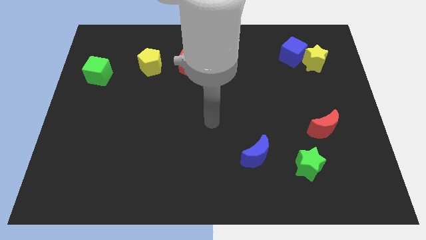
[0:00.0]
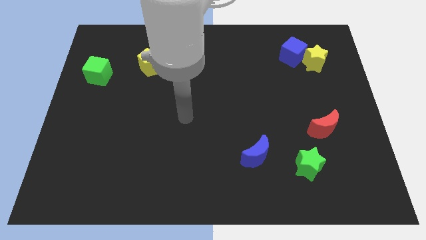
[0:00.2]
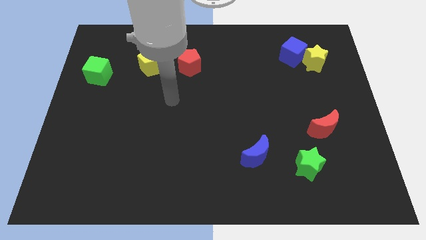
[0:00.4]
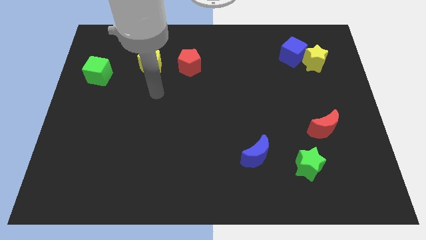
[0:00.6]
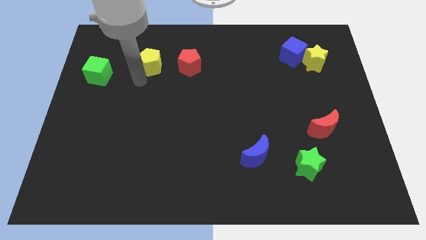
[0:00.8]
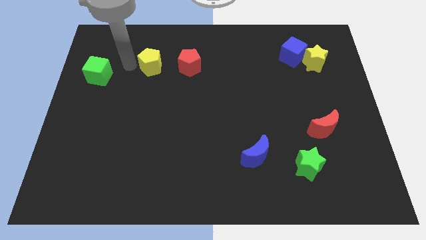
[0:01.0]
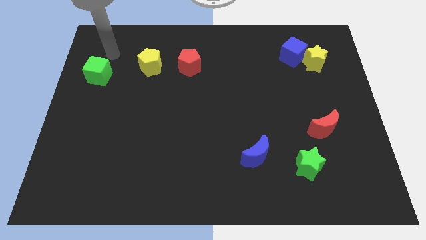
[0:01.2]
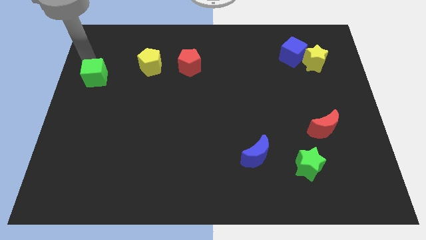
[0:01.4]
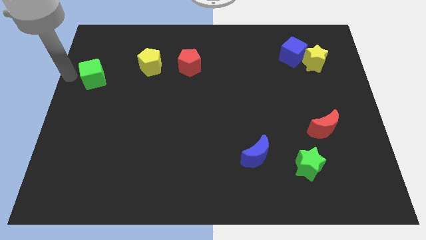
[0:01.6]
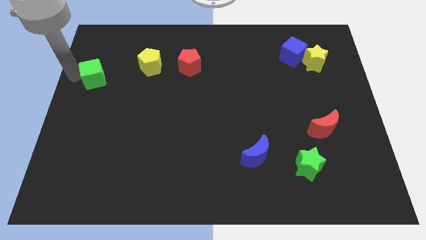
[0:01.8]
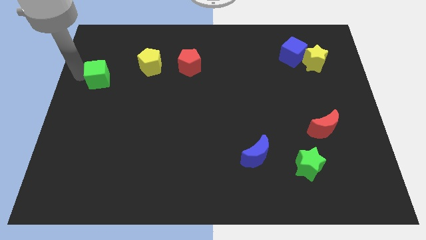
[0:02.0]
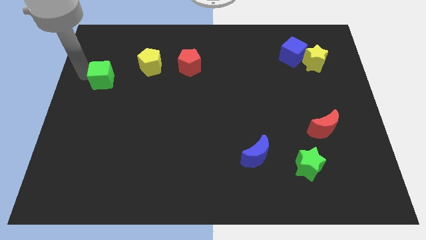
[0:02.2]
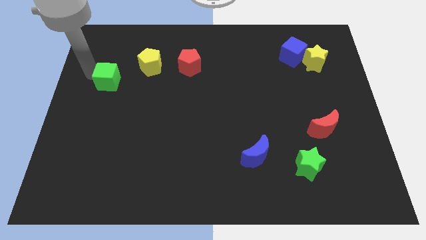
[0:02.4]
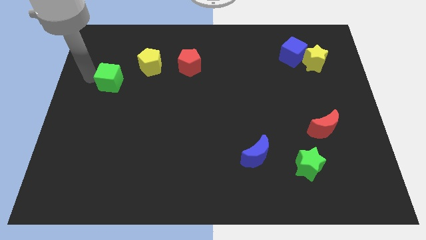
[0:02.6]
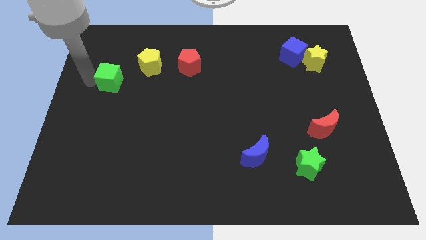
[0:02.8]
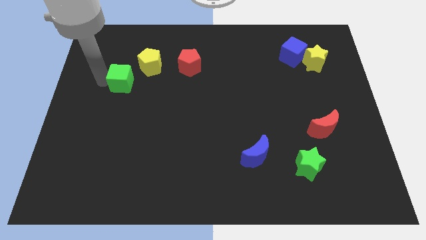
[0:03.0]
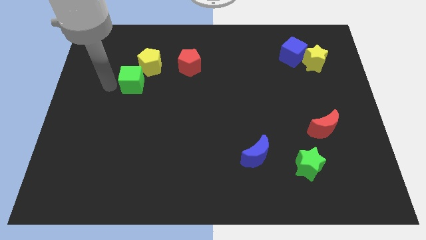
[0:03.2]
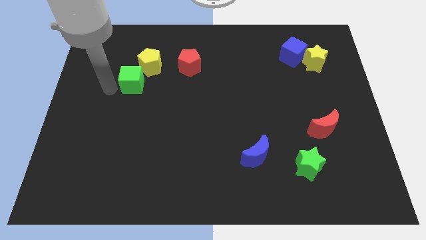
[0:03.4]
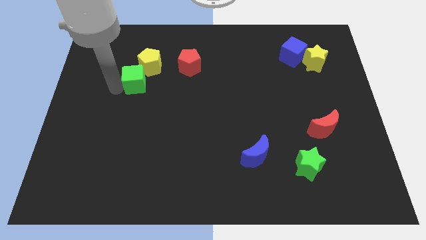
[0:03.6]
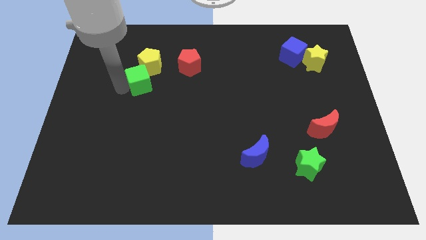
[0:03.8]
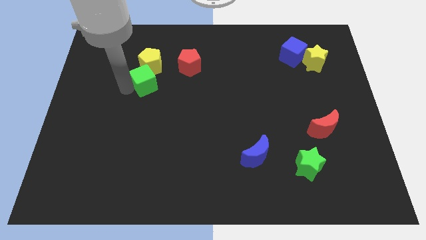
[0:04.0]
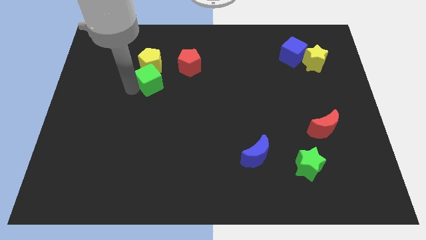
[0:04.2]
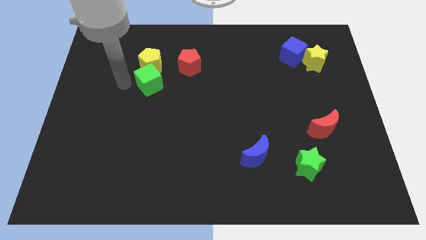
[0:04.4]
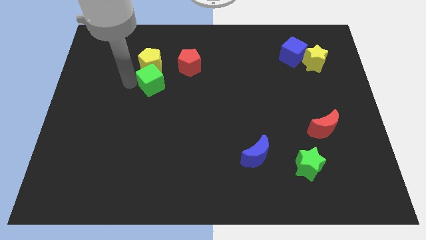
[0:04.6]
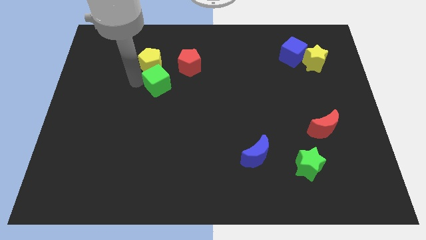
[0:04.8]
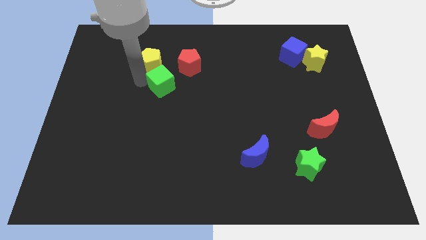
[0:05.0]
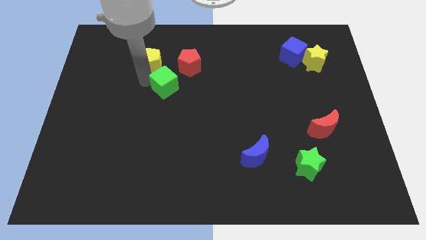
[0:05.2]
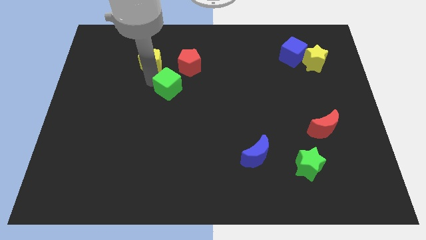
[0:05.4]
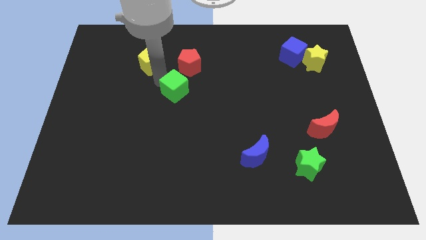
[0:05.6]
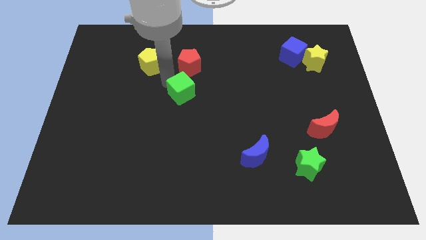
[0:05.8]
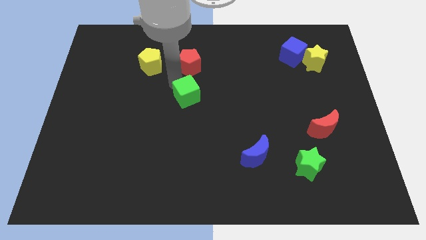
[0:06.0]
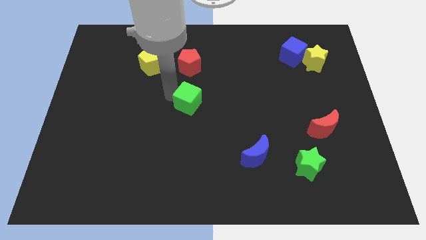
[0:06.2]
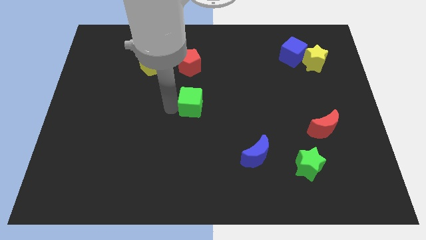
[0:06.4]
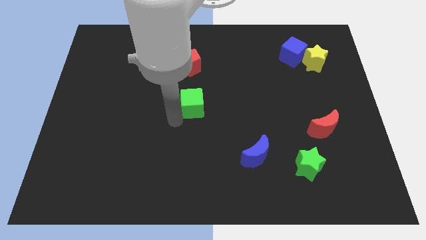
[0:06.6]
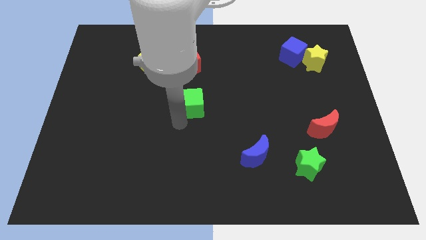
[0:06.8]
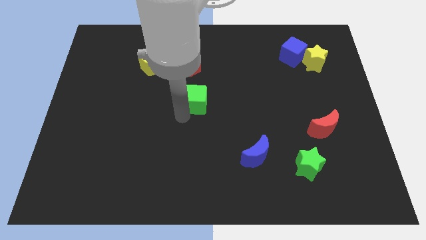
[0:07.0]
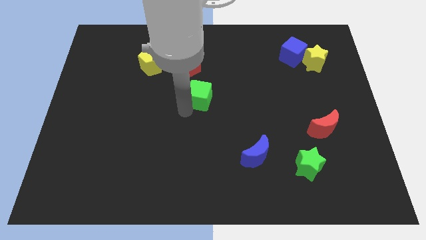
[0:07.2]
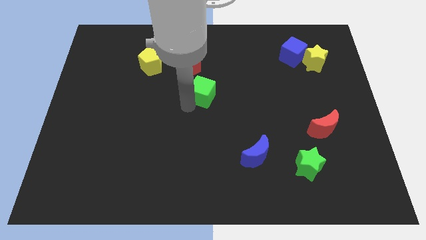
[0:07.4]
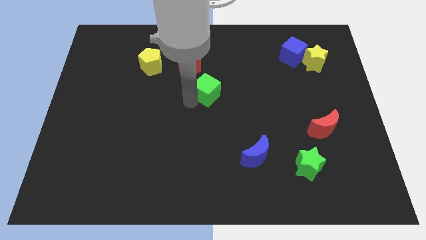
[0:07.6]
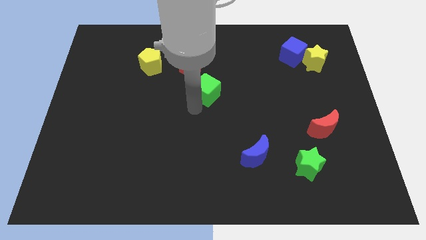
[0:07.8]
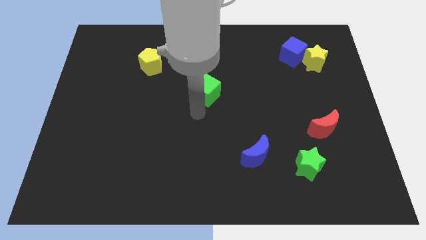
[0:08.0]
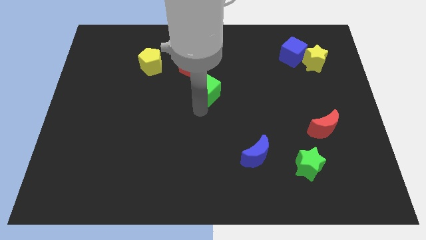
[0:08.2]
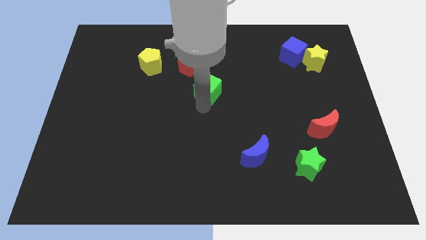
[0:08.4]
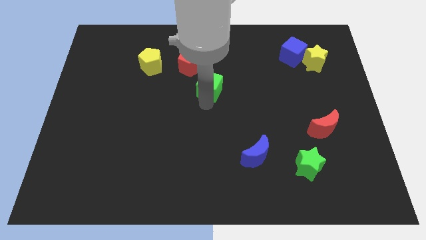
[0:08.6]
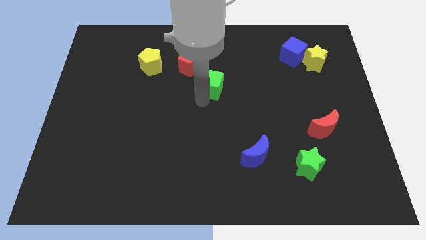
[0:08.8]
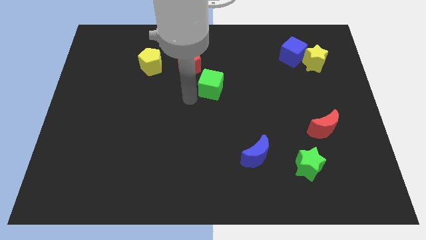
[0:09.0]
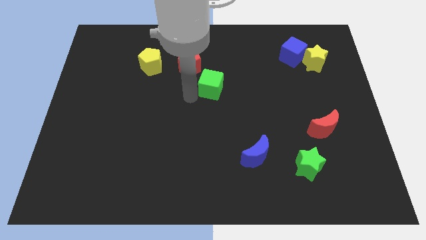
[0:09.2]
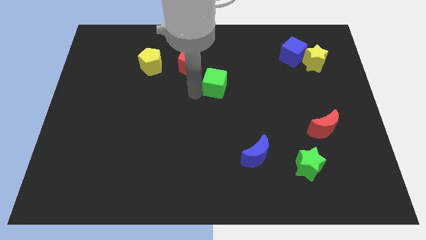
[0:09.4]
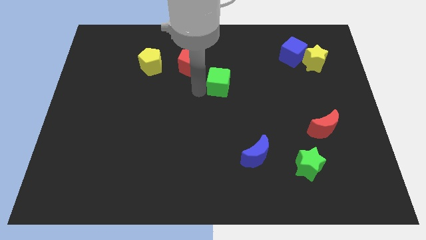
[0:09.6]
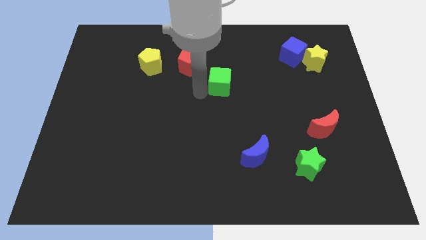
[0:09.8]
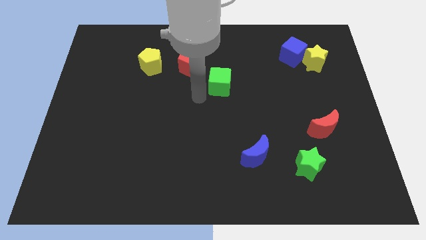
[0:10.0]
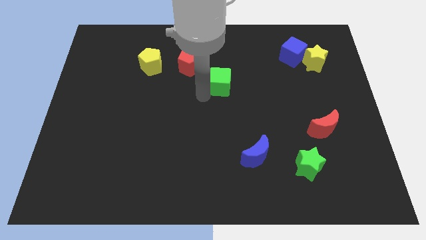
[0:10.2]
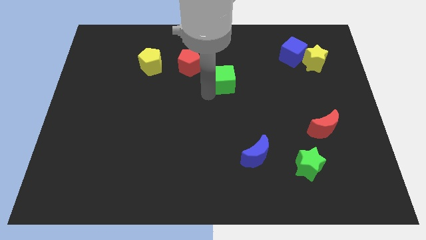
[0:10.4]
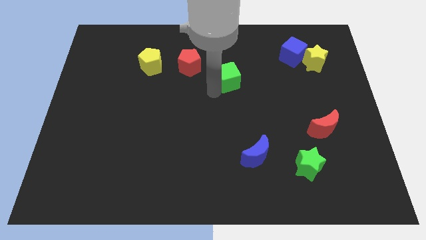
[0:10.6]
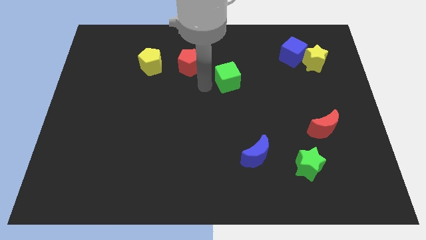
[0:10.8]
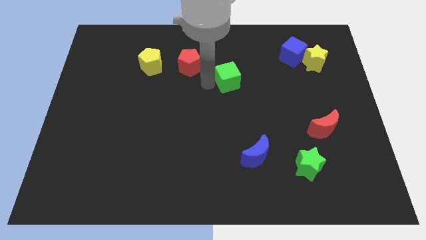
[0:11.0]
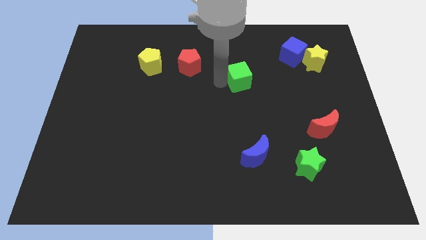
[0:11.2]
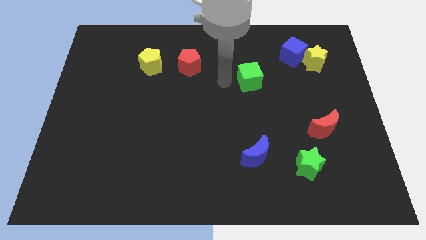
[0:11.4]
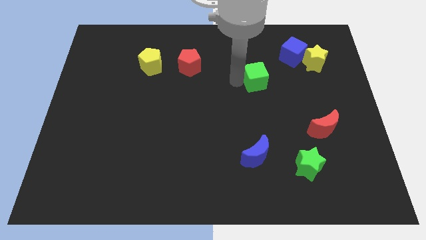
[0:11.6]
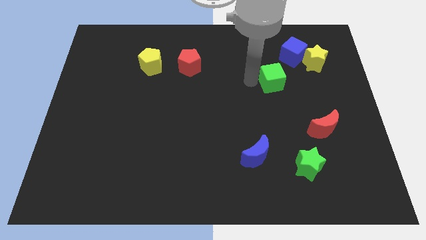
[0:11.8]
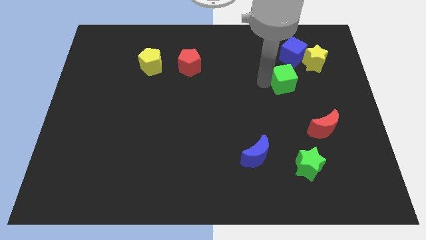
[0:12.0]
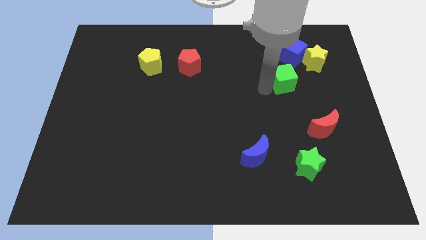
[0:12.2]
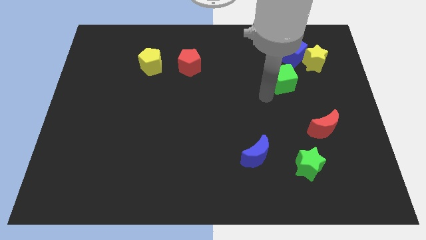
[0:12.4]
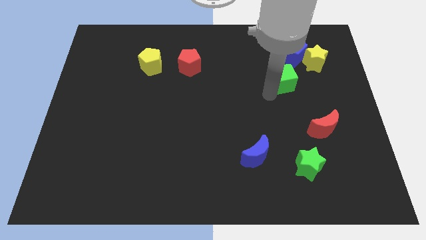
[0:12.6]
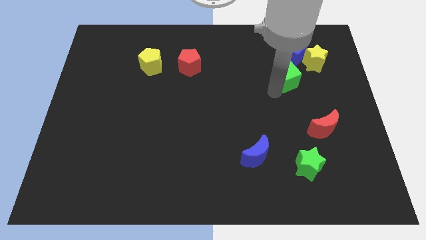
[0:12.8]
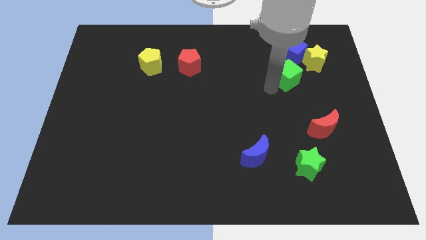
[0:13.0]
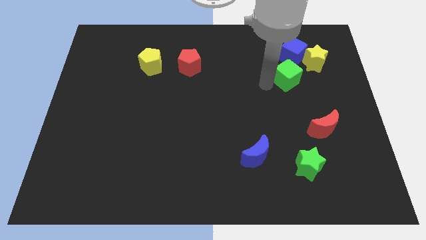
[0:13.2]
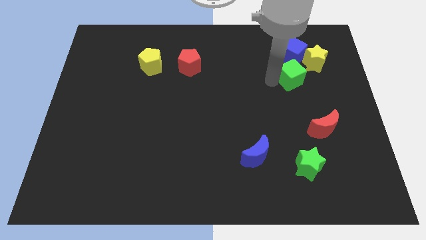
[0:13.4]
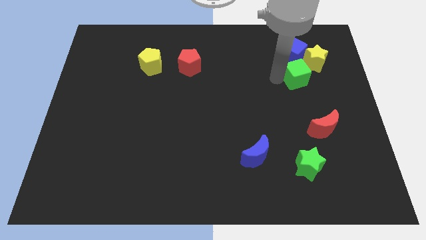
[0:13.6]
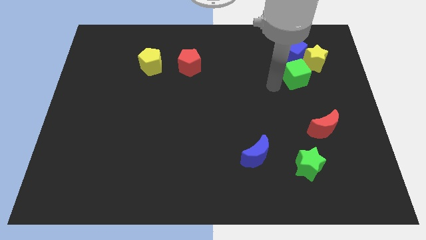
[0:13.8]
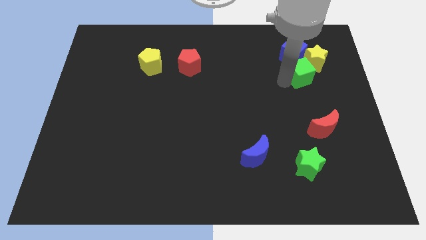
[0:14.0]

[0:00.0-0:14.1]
slide the green cube to the bottom right of the blue cube
